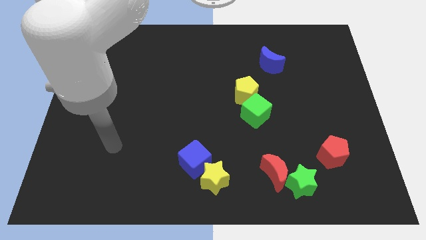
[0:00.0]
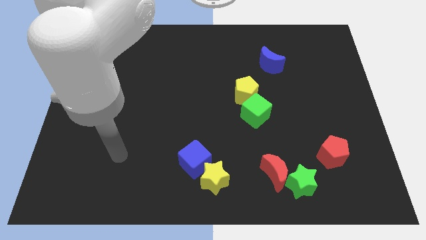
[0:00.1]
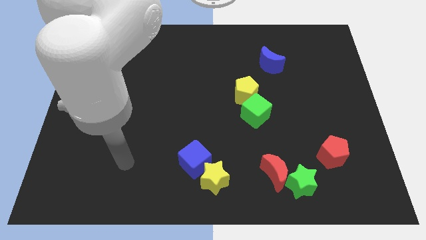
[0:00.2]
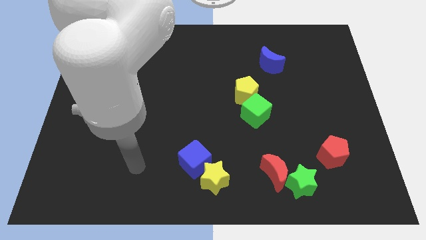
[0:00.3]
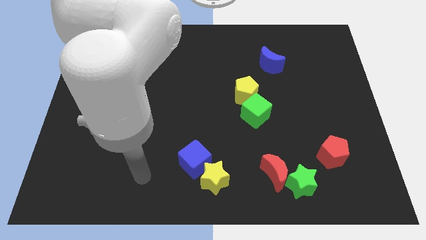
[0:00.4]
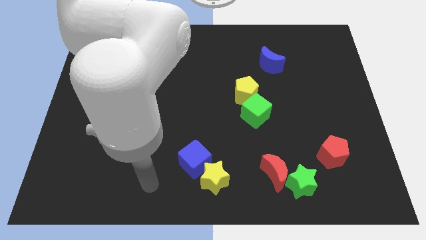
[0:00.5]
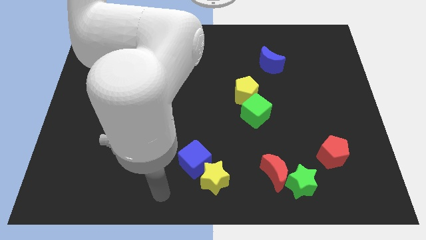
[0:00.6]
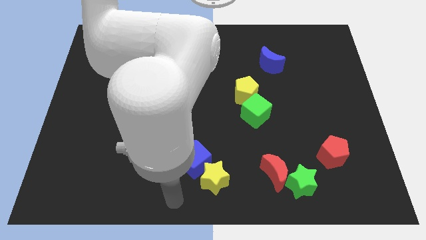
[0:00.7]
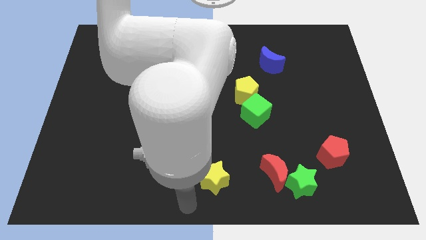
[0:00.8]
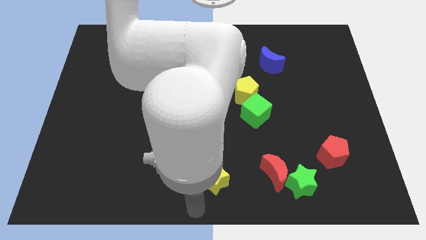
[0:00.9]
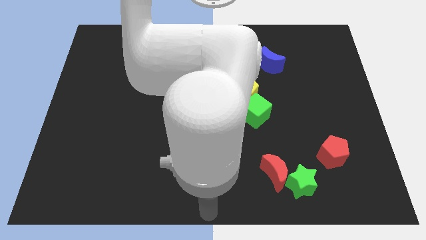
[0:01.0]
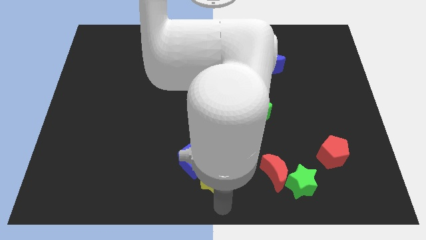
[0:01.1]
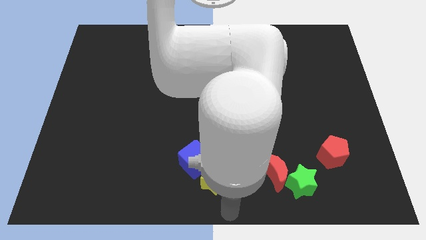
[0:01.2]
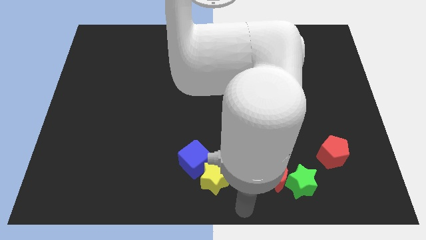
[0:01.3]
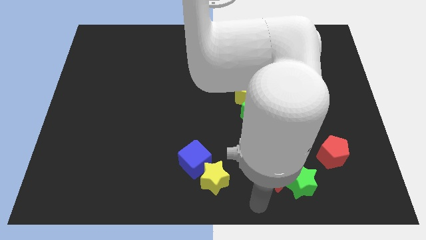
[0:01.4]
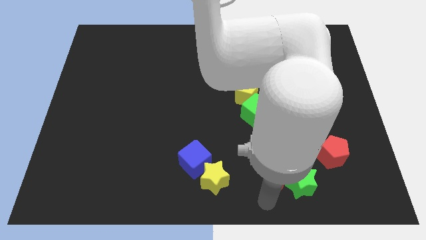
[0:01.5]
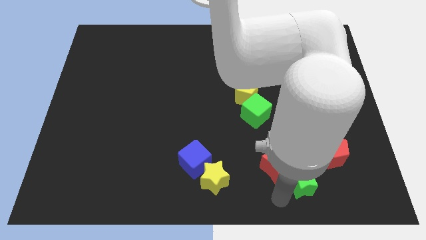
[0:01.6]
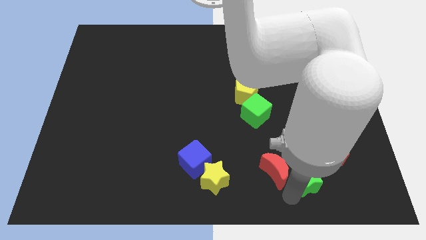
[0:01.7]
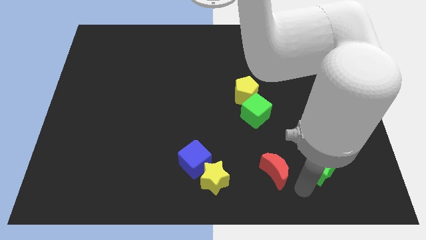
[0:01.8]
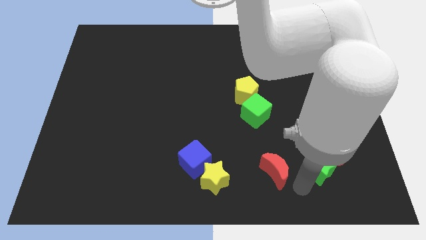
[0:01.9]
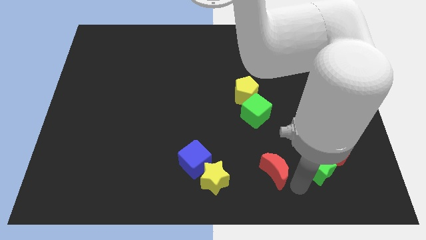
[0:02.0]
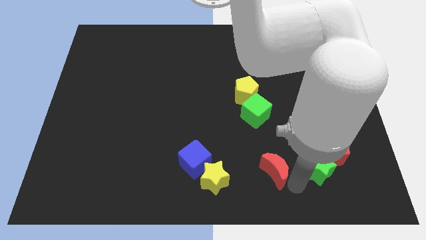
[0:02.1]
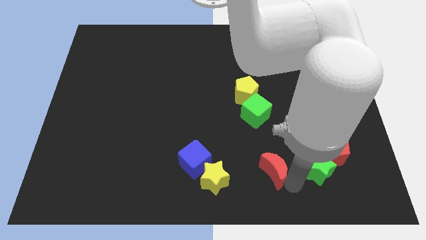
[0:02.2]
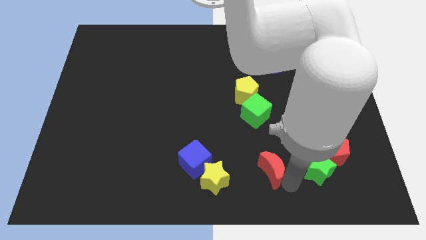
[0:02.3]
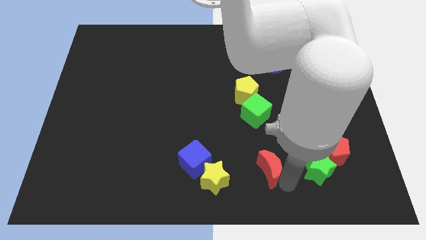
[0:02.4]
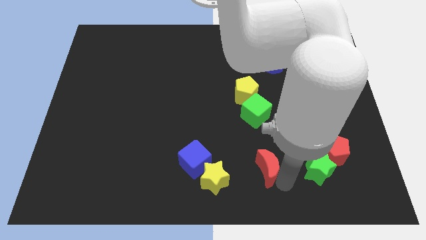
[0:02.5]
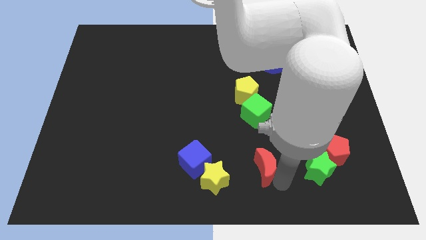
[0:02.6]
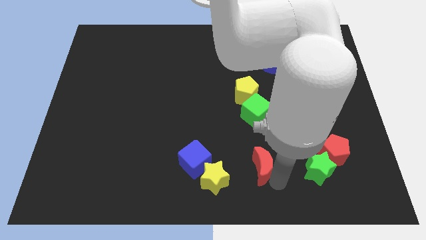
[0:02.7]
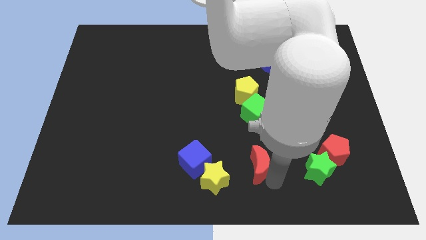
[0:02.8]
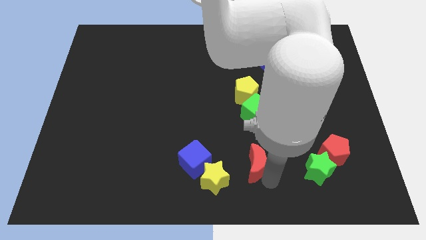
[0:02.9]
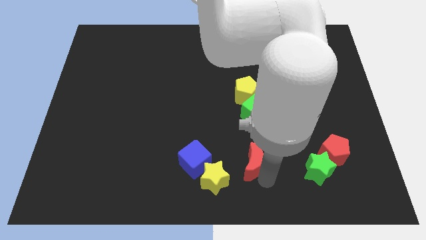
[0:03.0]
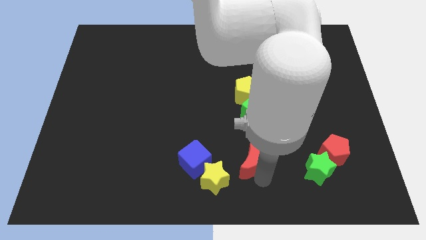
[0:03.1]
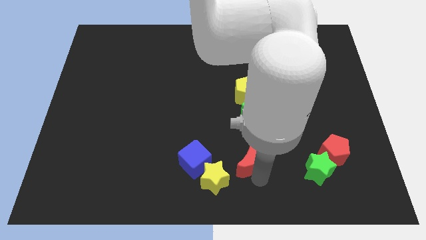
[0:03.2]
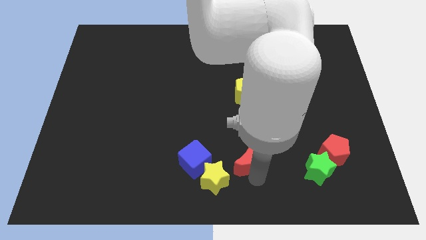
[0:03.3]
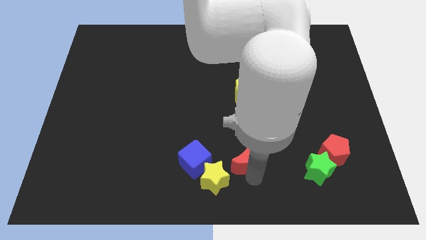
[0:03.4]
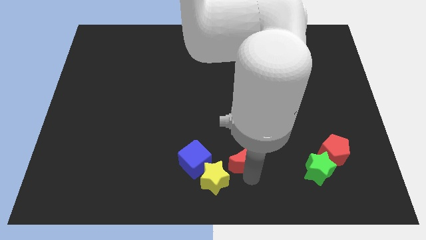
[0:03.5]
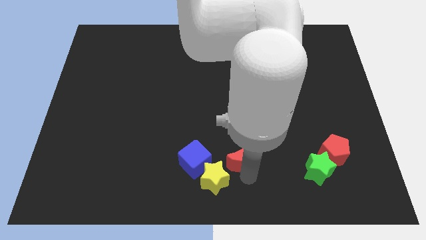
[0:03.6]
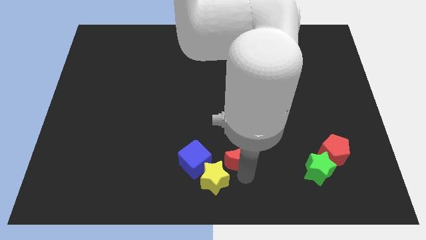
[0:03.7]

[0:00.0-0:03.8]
slightly push the red moon diagonally upwards and to the left

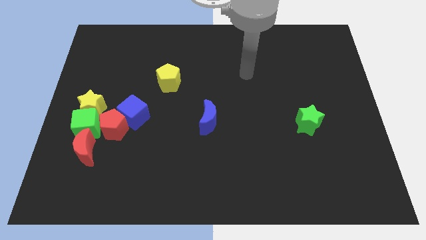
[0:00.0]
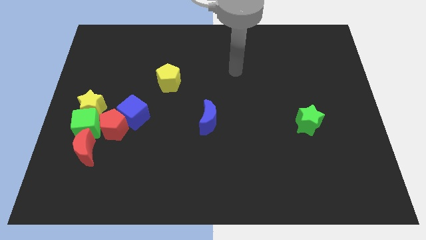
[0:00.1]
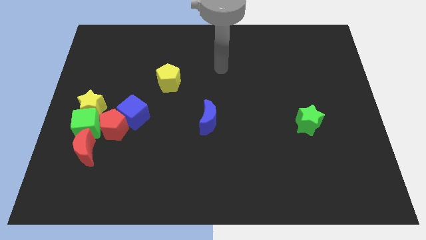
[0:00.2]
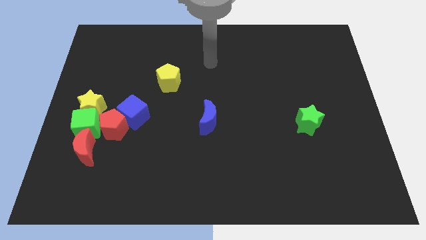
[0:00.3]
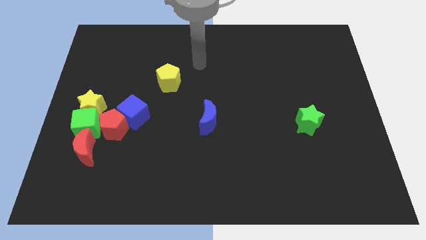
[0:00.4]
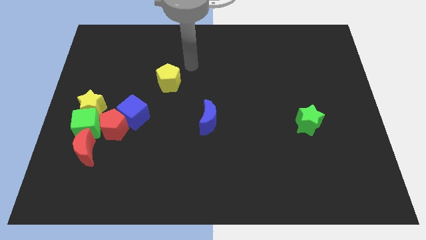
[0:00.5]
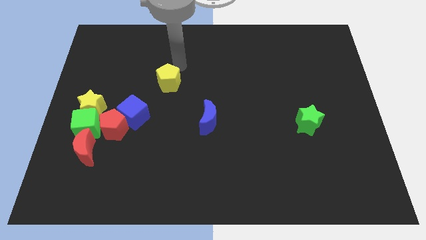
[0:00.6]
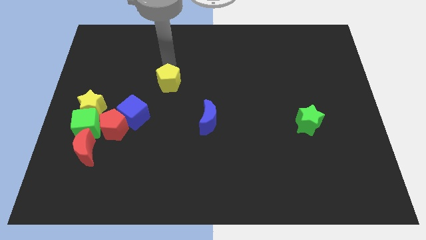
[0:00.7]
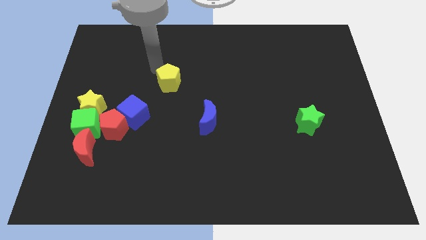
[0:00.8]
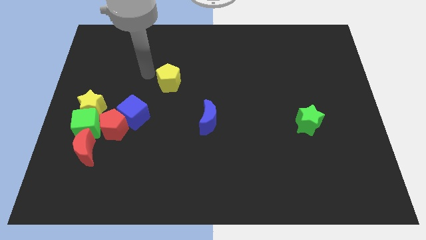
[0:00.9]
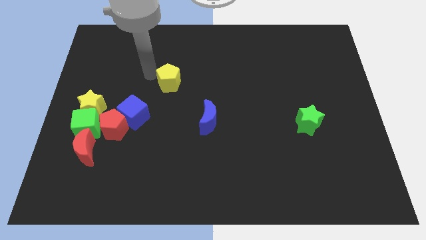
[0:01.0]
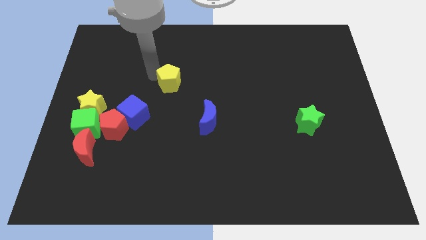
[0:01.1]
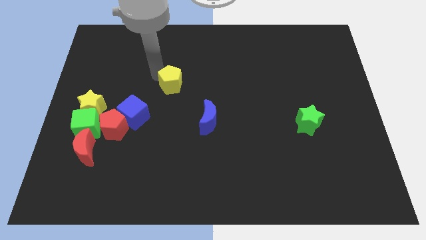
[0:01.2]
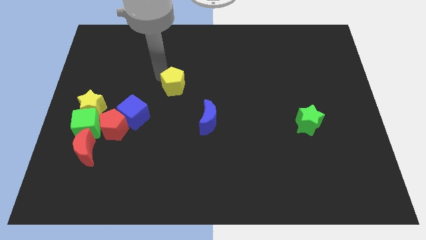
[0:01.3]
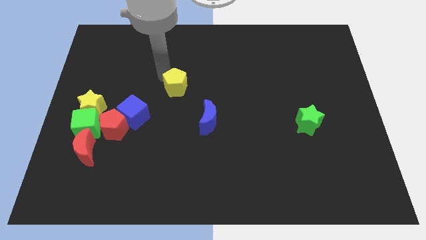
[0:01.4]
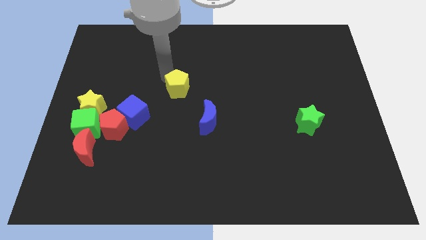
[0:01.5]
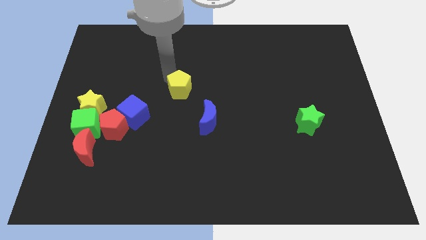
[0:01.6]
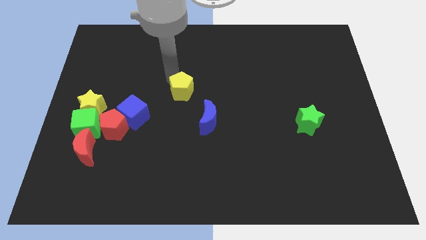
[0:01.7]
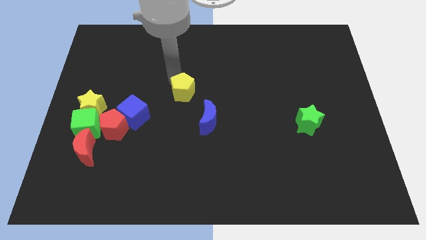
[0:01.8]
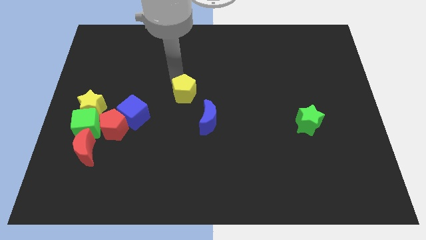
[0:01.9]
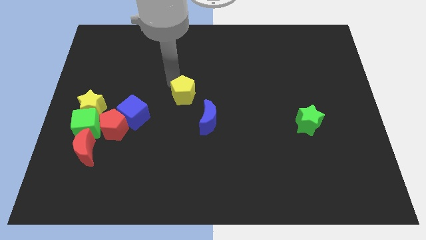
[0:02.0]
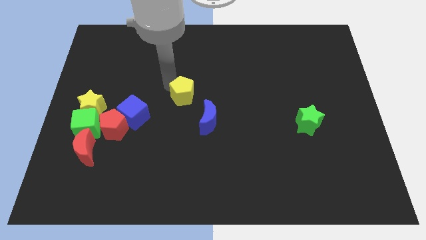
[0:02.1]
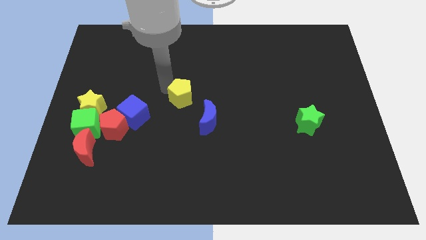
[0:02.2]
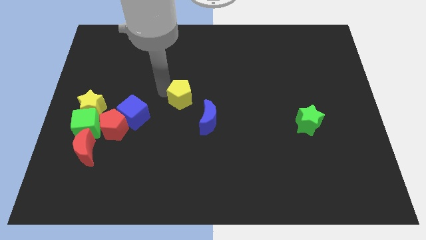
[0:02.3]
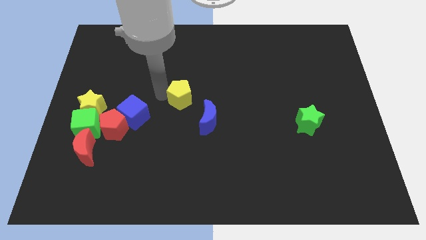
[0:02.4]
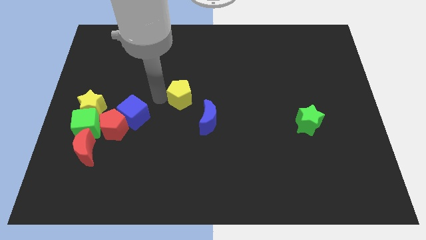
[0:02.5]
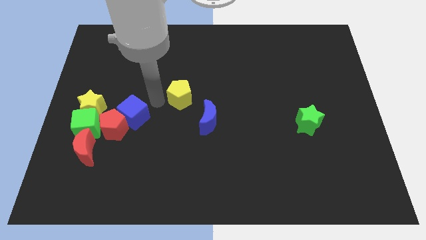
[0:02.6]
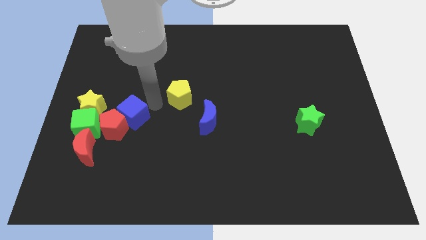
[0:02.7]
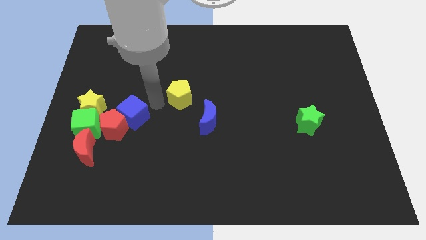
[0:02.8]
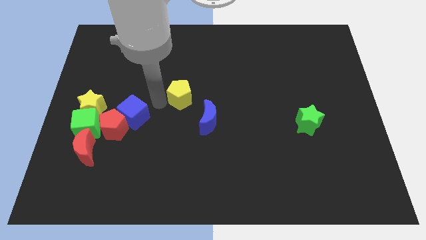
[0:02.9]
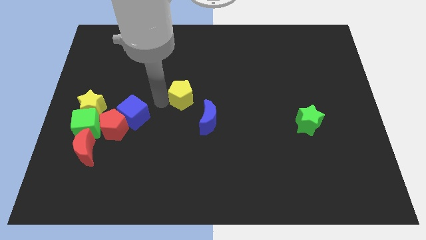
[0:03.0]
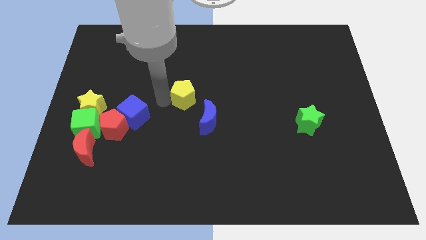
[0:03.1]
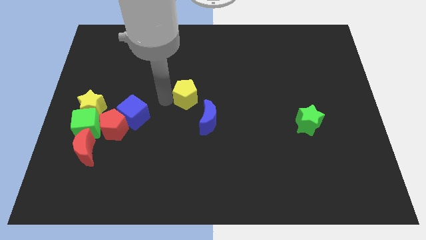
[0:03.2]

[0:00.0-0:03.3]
push the yellow pentagon a bit diagonally downwards and right

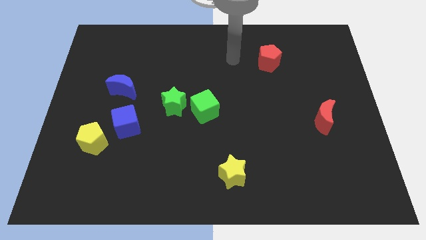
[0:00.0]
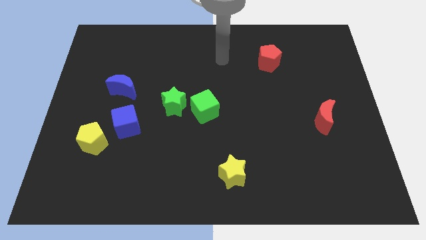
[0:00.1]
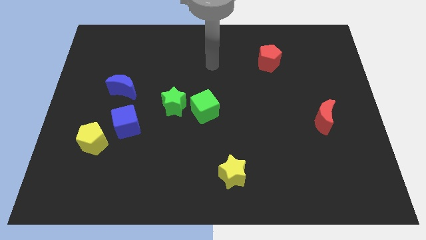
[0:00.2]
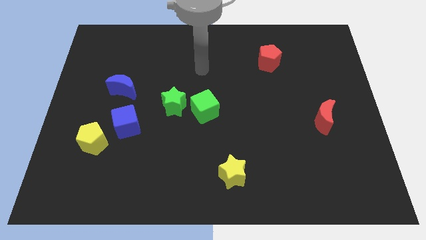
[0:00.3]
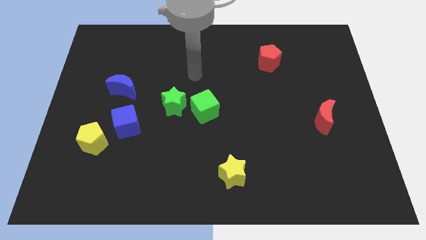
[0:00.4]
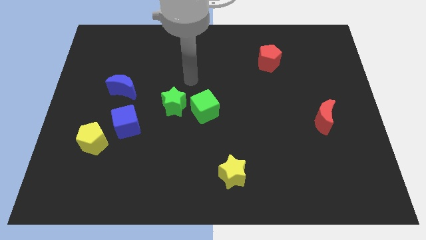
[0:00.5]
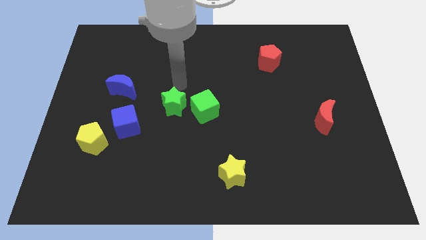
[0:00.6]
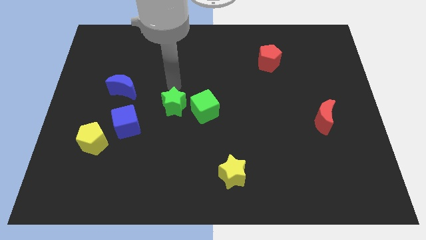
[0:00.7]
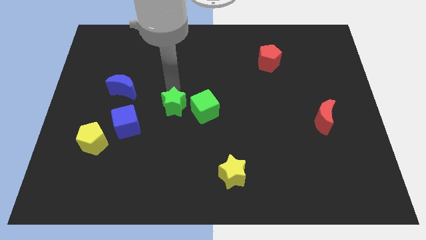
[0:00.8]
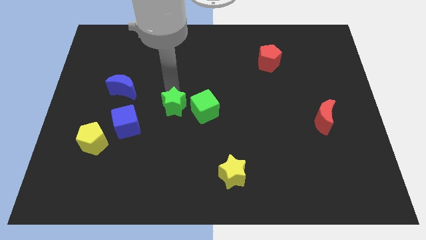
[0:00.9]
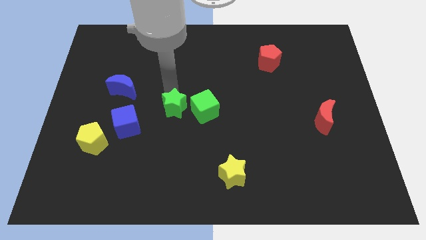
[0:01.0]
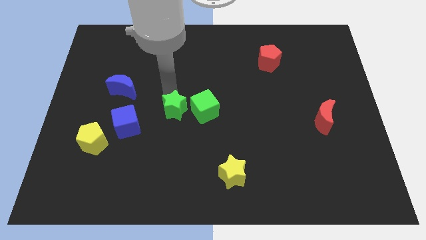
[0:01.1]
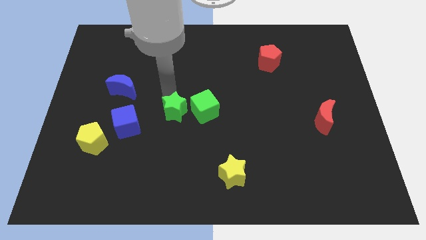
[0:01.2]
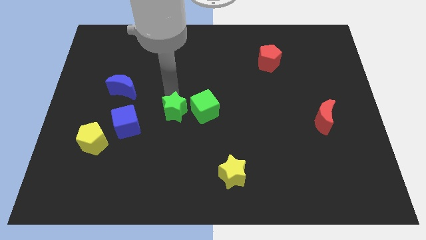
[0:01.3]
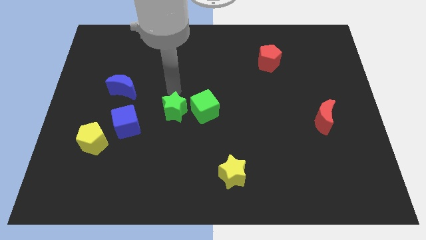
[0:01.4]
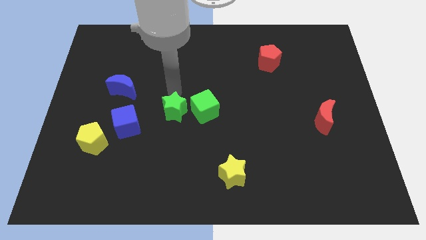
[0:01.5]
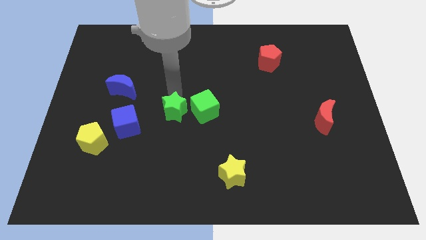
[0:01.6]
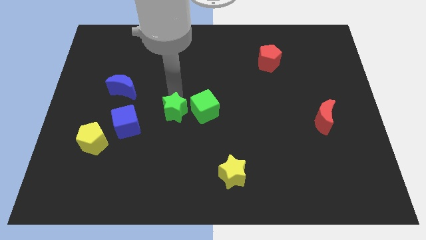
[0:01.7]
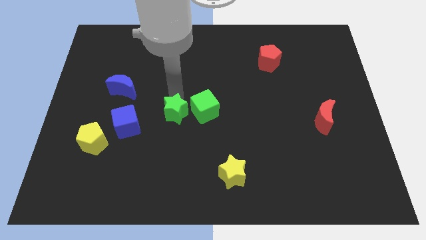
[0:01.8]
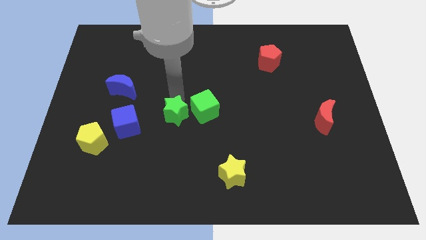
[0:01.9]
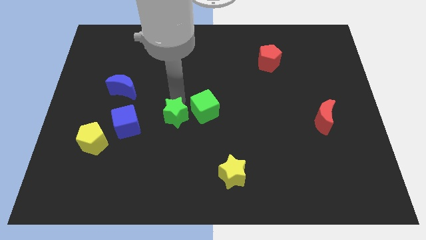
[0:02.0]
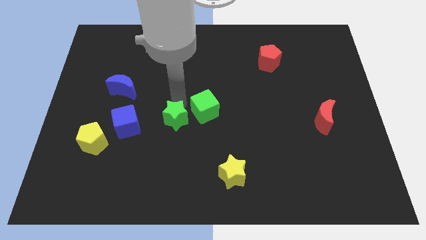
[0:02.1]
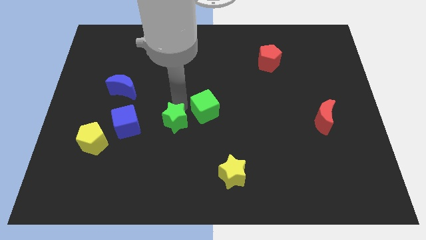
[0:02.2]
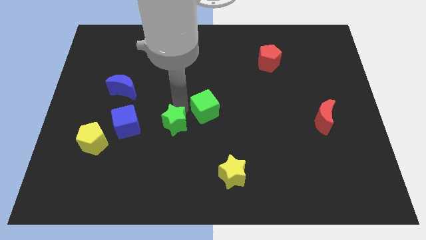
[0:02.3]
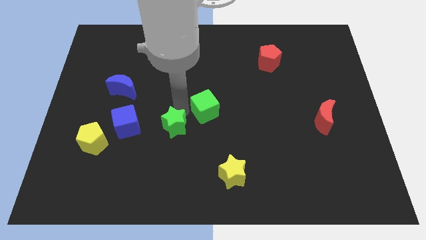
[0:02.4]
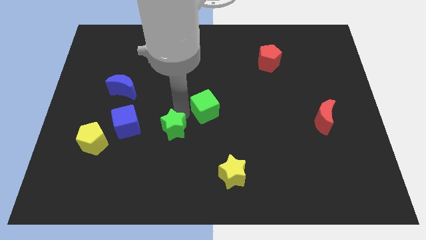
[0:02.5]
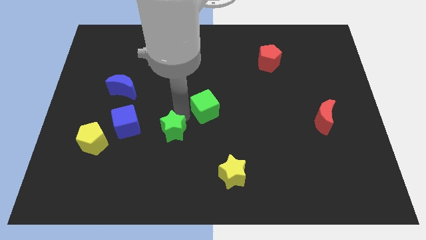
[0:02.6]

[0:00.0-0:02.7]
slightly move the green star down
